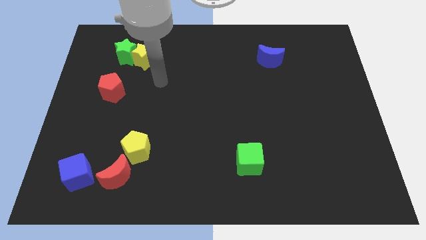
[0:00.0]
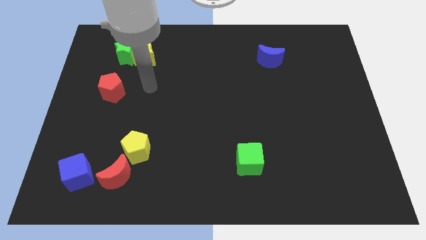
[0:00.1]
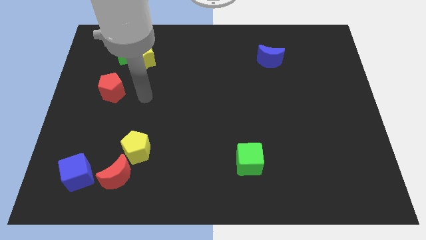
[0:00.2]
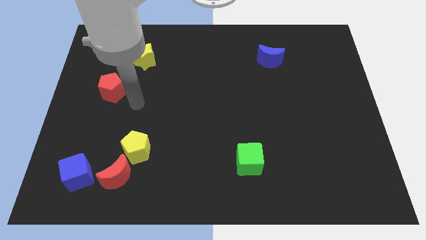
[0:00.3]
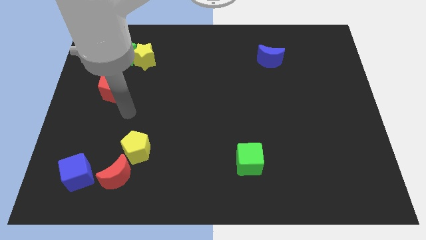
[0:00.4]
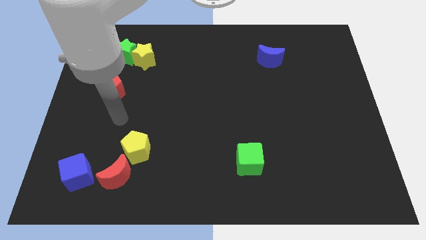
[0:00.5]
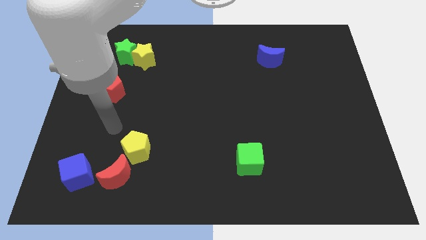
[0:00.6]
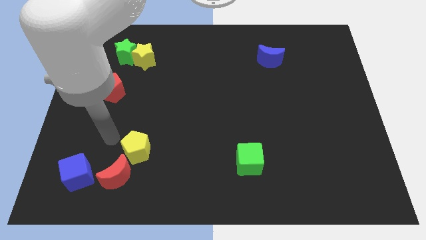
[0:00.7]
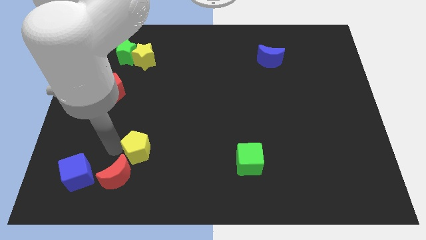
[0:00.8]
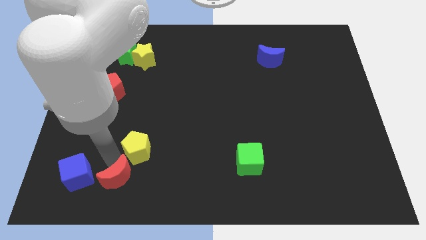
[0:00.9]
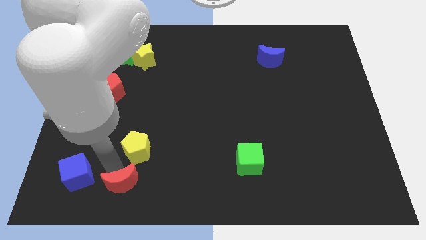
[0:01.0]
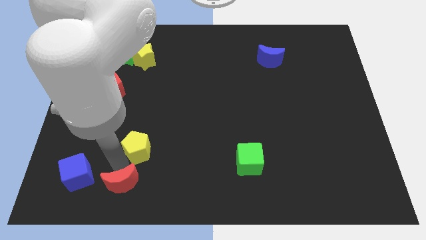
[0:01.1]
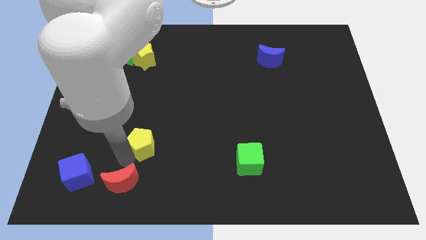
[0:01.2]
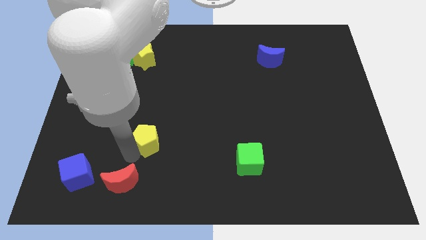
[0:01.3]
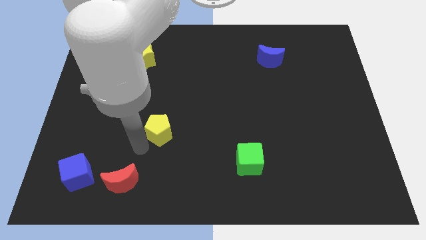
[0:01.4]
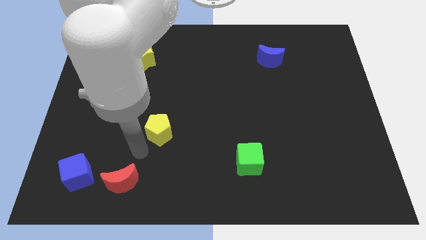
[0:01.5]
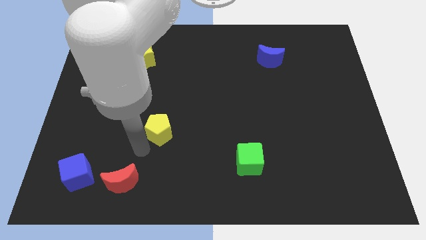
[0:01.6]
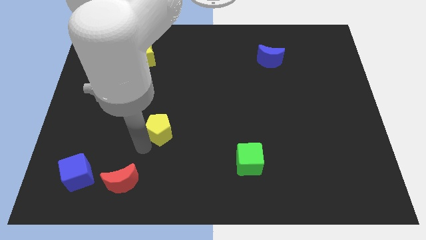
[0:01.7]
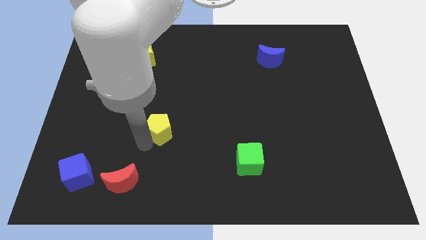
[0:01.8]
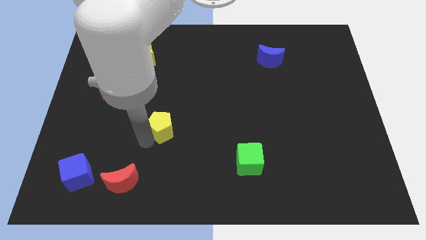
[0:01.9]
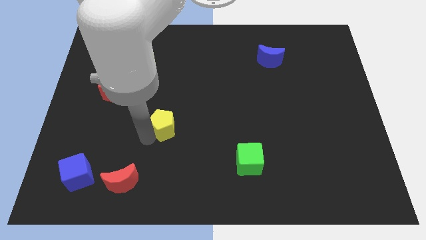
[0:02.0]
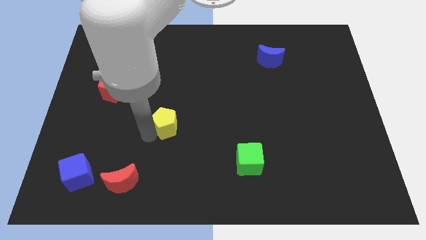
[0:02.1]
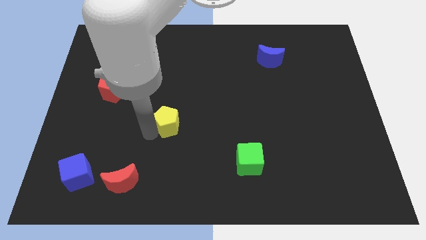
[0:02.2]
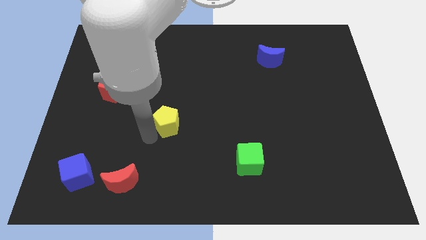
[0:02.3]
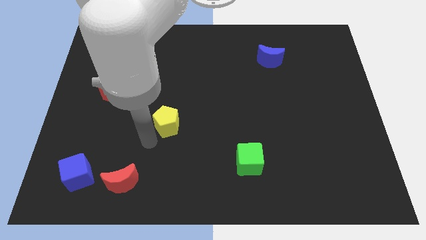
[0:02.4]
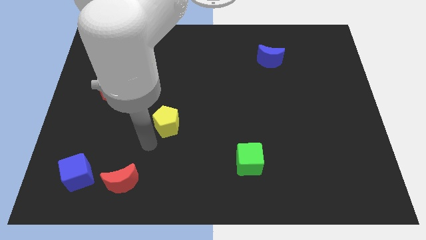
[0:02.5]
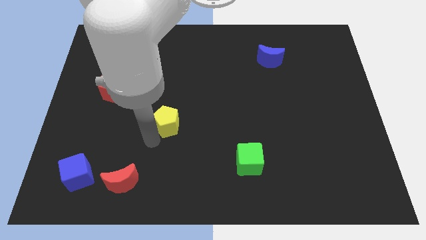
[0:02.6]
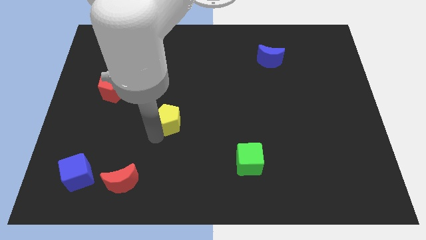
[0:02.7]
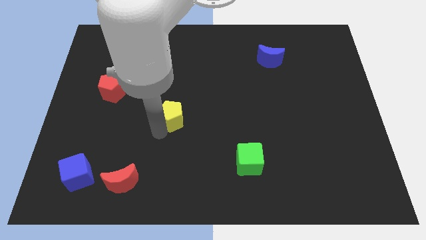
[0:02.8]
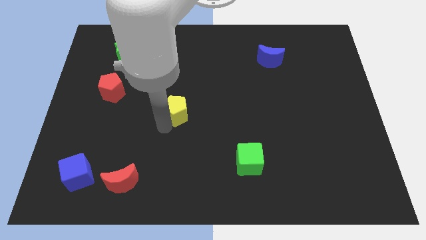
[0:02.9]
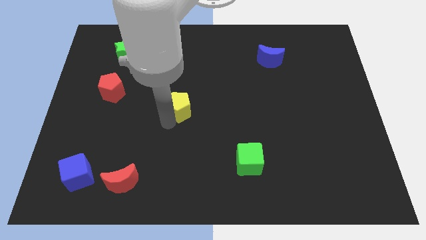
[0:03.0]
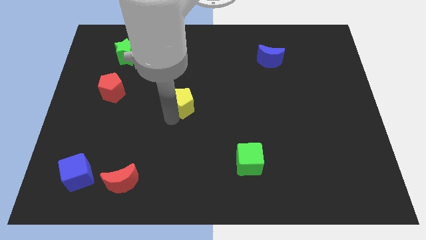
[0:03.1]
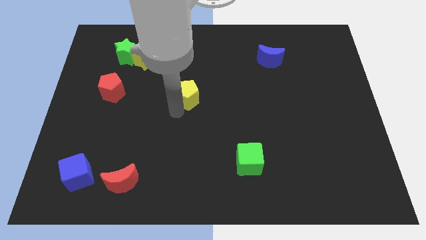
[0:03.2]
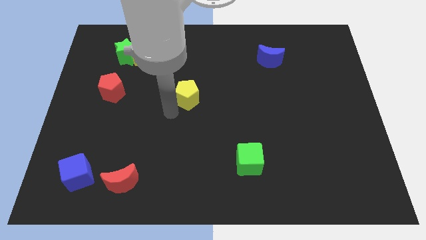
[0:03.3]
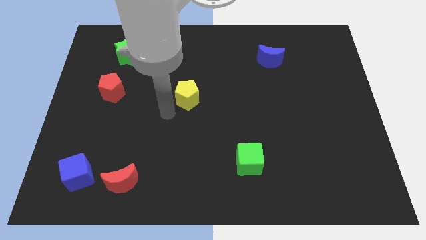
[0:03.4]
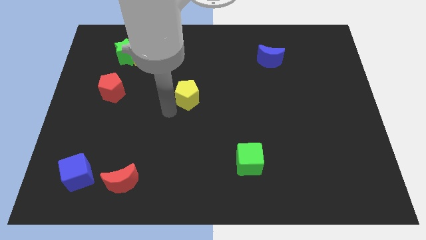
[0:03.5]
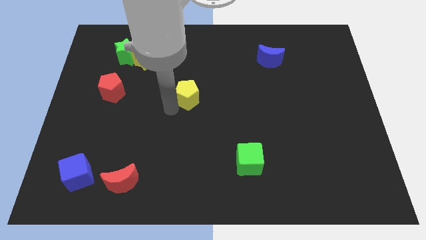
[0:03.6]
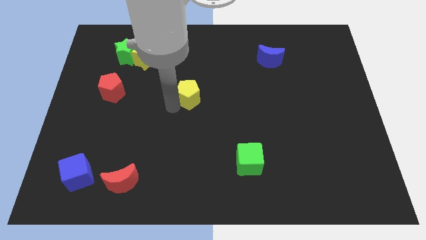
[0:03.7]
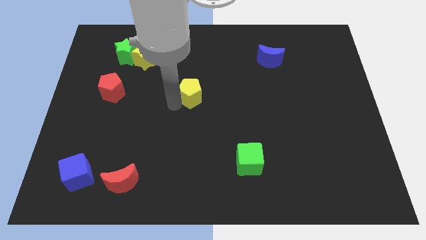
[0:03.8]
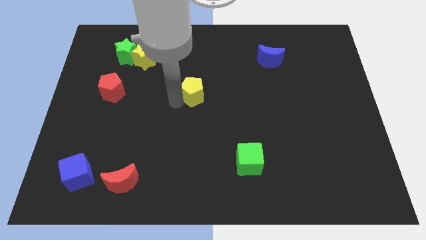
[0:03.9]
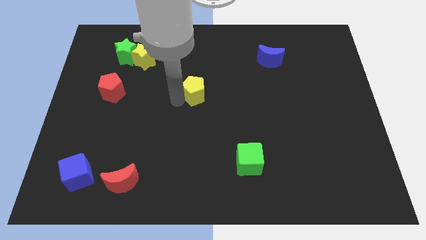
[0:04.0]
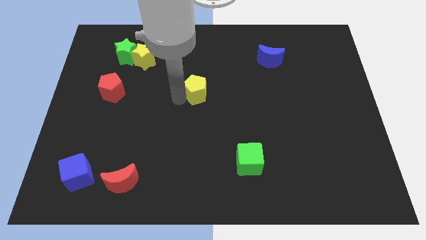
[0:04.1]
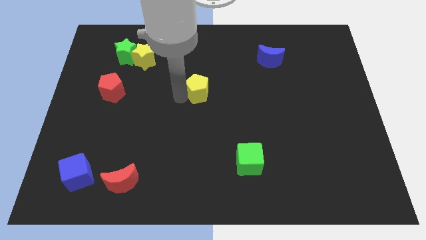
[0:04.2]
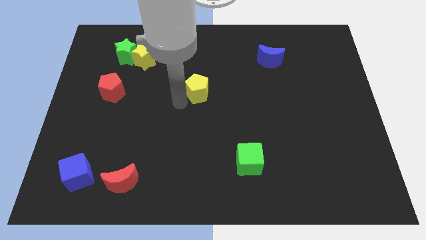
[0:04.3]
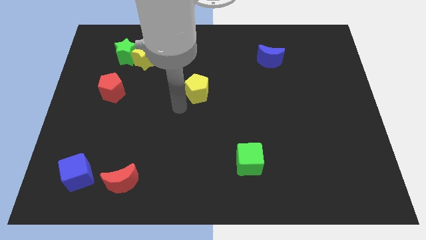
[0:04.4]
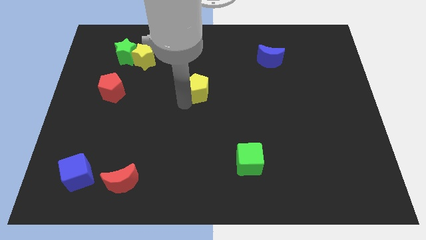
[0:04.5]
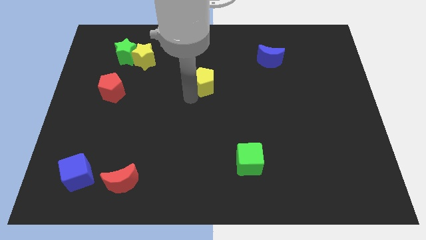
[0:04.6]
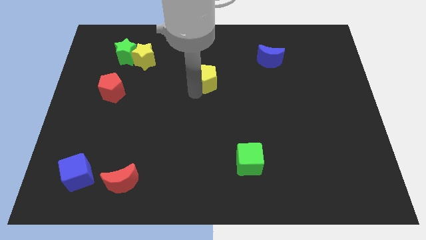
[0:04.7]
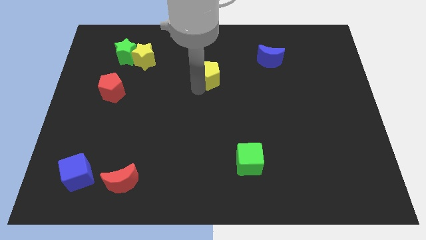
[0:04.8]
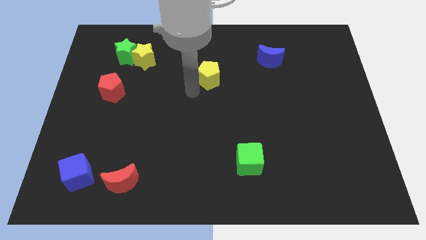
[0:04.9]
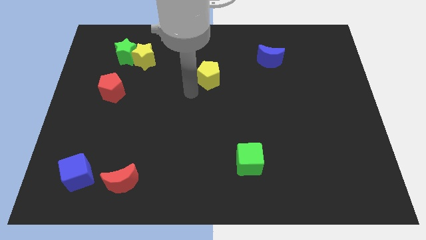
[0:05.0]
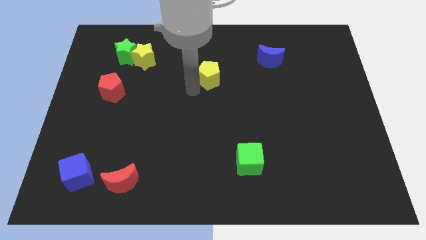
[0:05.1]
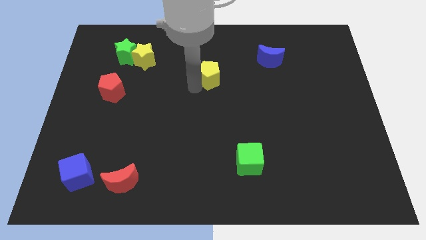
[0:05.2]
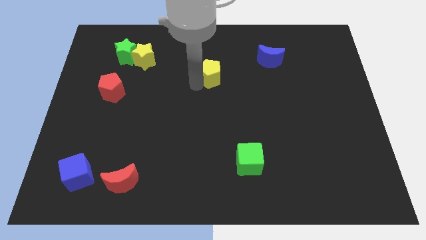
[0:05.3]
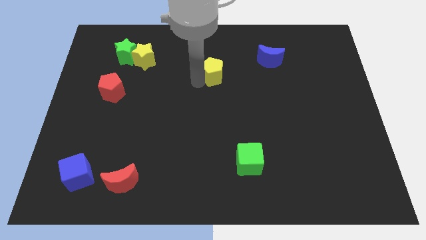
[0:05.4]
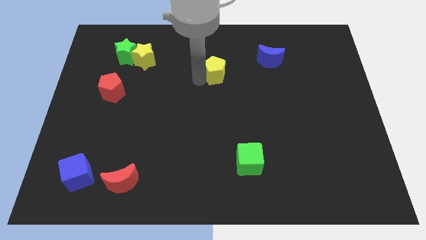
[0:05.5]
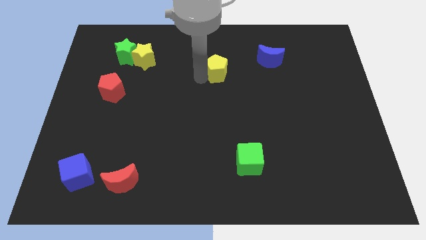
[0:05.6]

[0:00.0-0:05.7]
move the yellow pentagon just left of the blue moon
